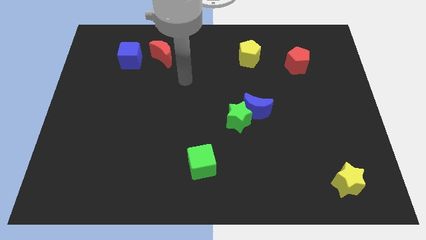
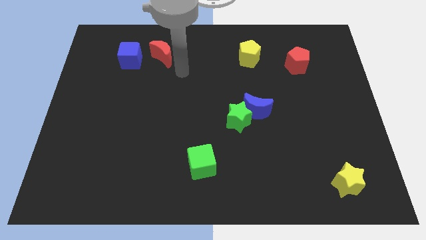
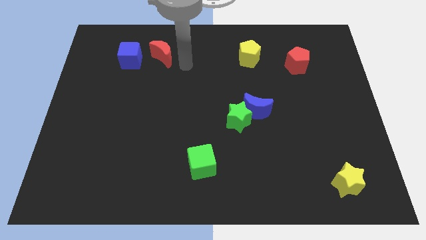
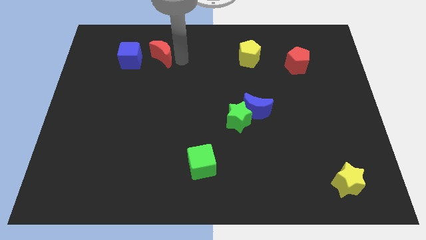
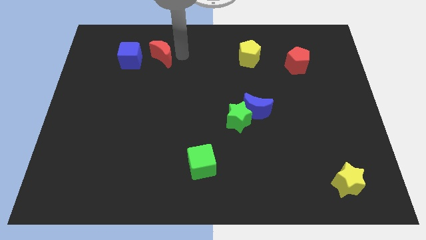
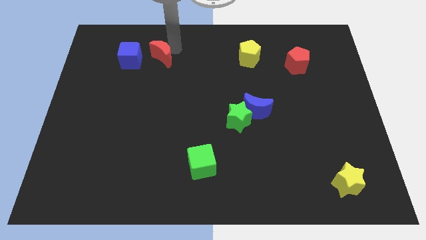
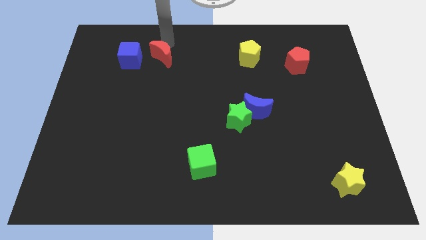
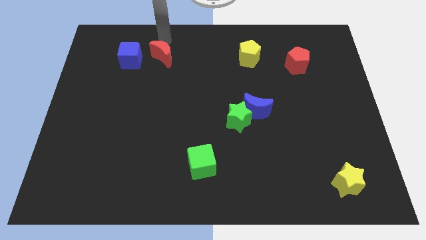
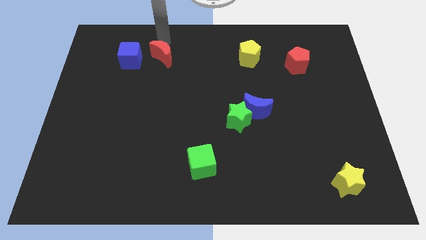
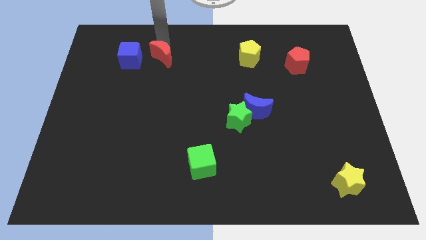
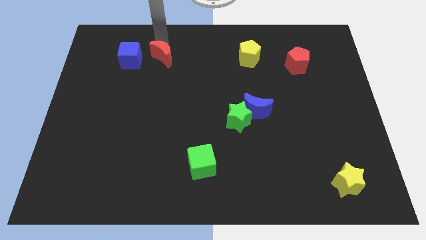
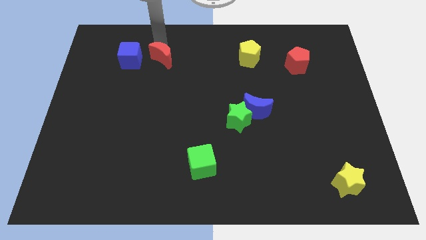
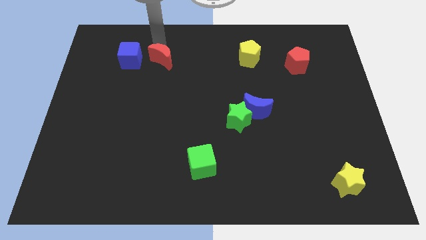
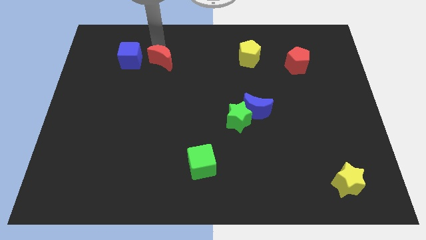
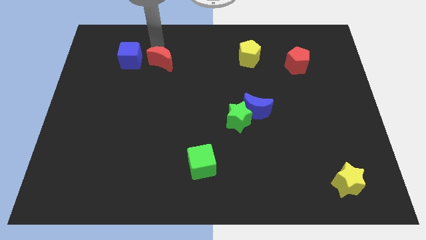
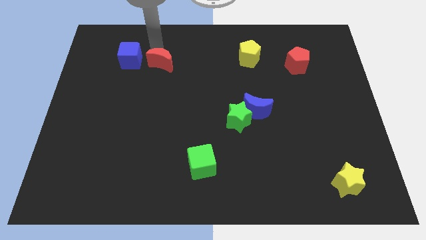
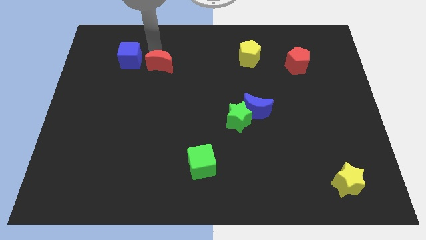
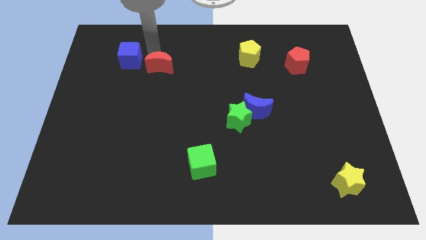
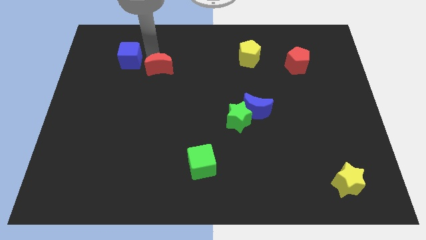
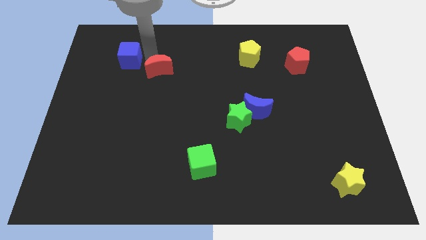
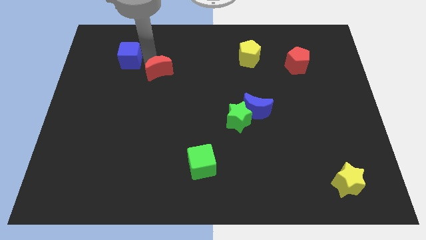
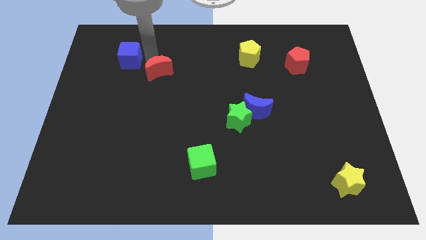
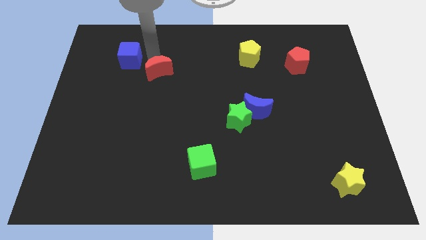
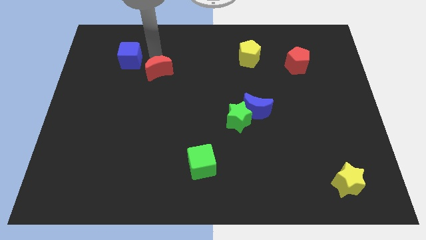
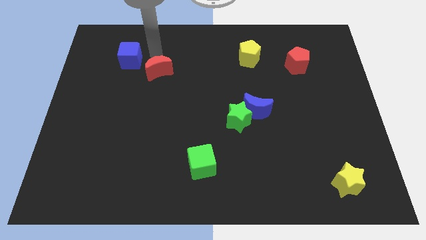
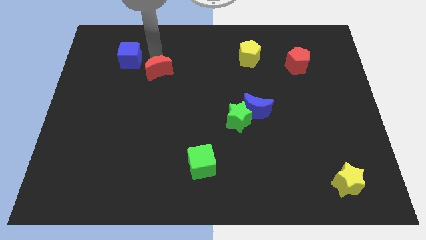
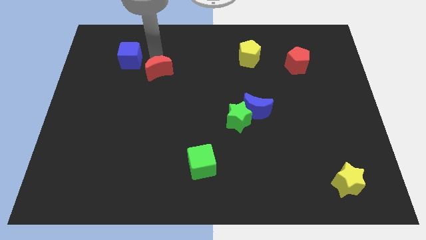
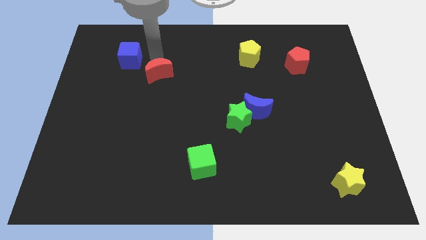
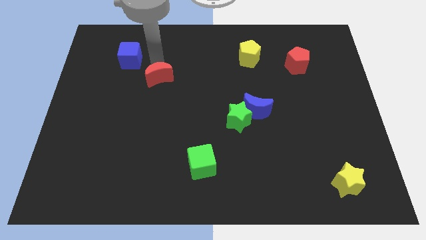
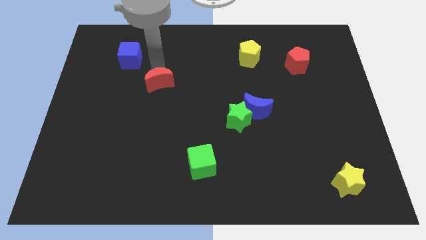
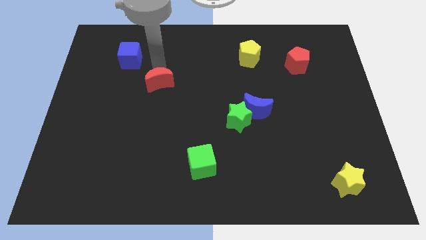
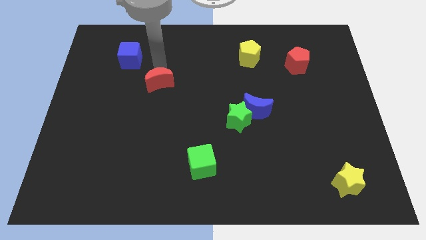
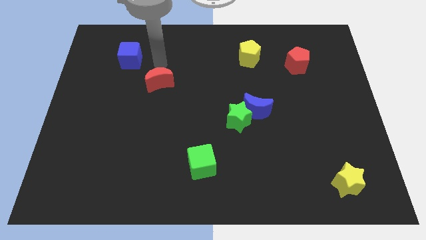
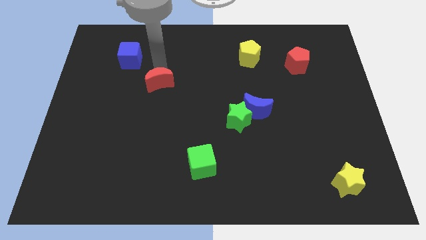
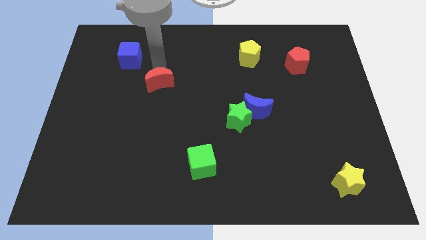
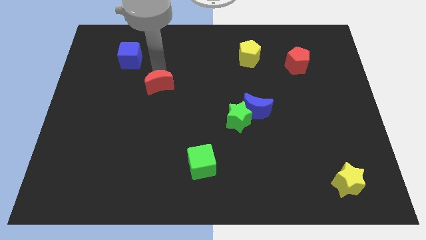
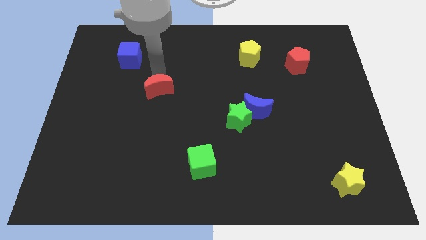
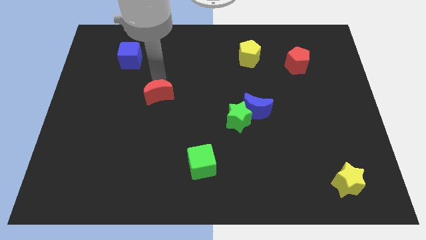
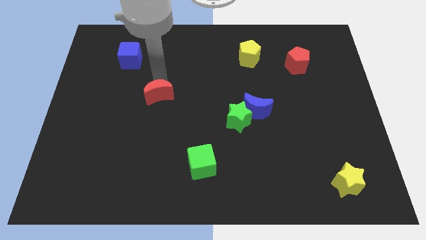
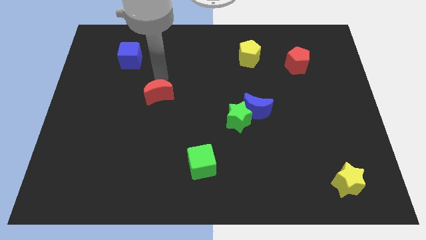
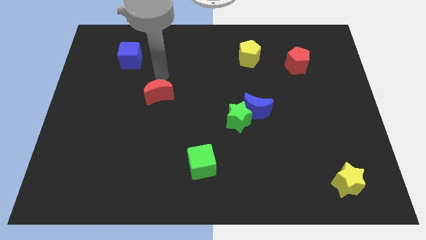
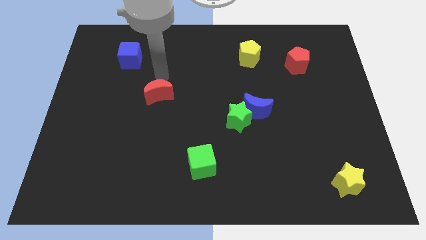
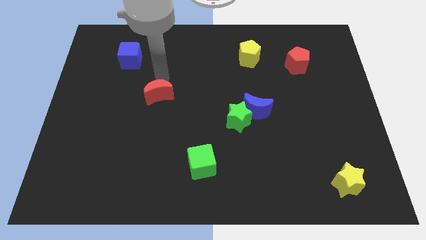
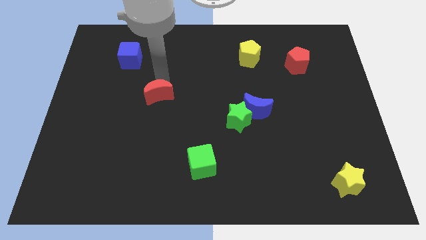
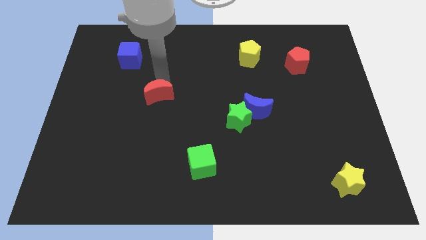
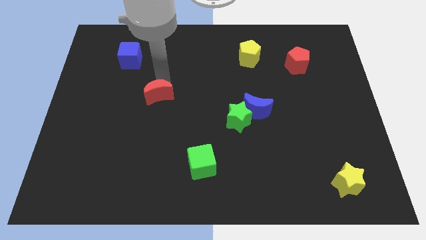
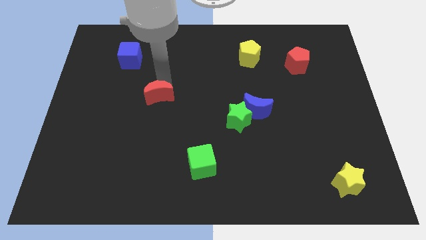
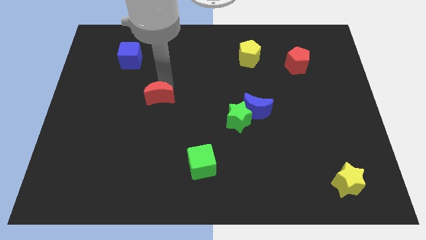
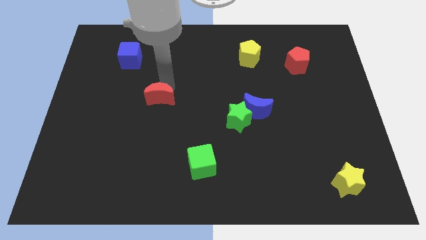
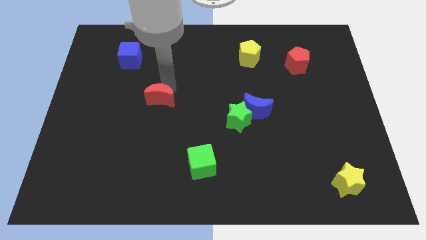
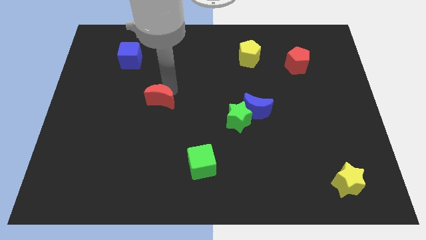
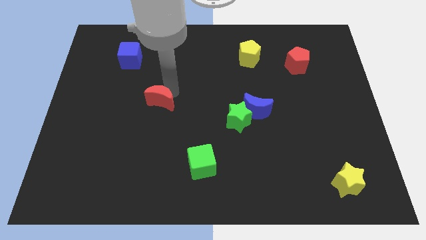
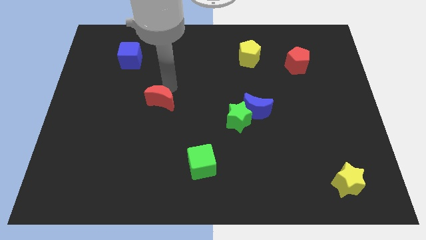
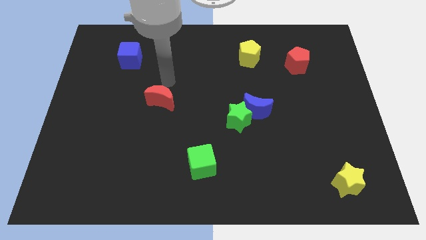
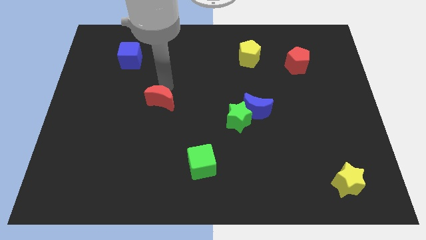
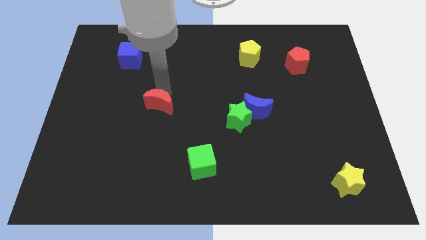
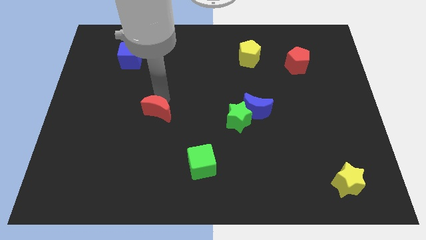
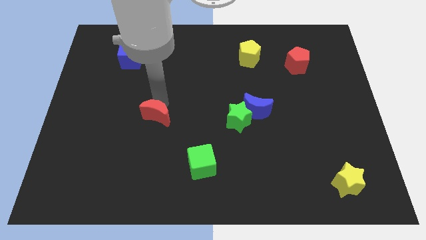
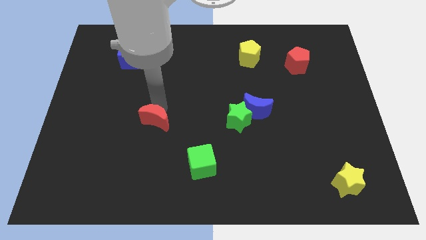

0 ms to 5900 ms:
slide the red moon down

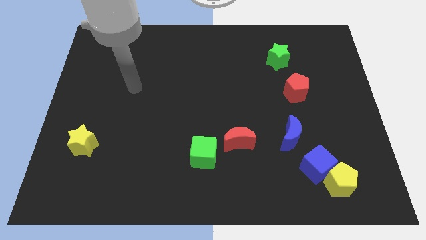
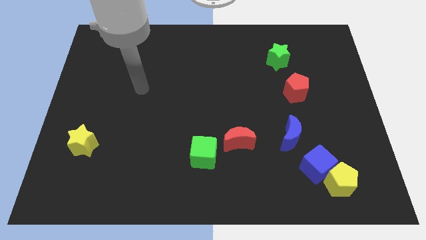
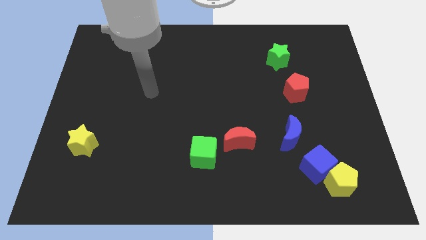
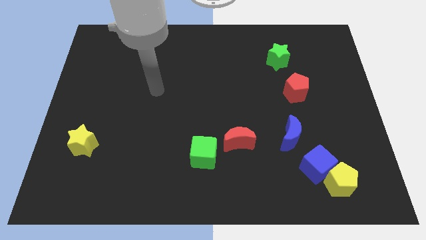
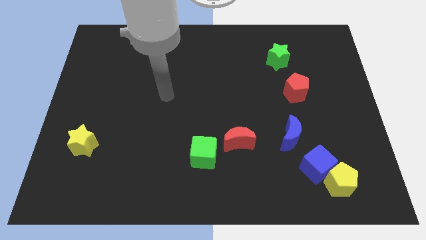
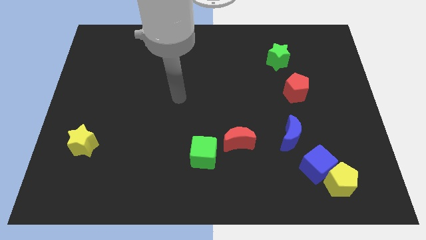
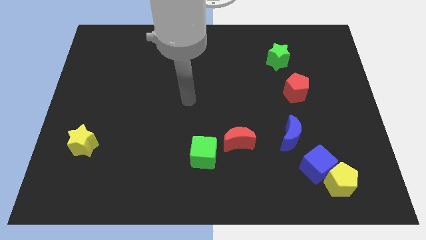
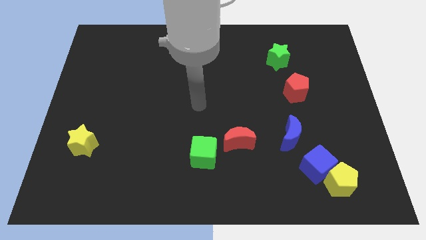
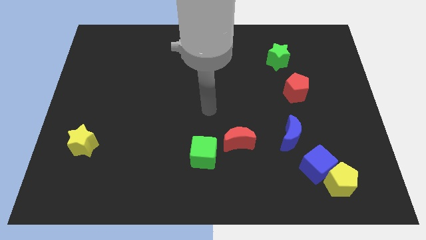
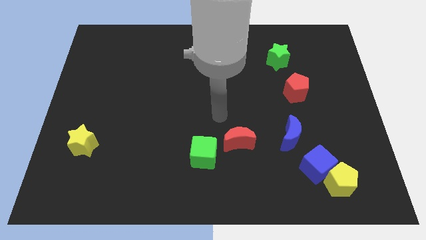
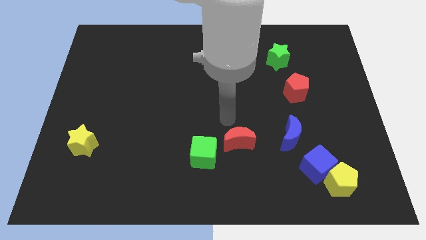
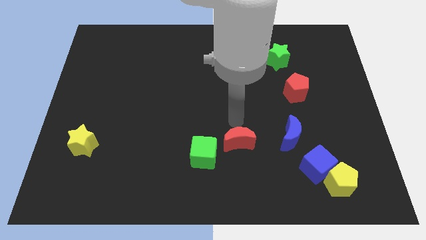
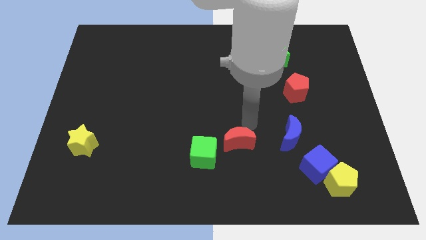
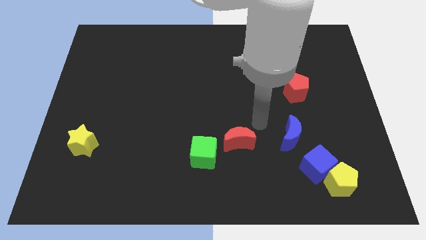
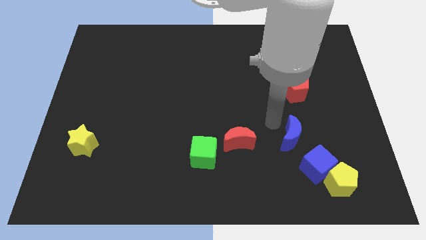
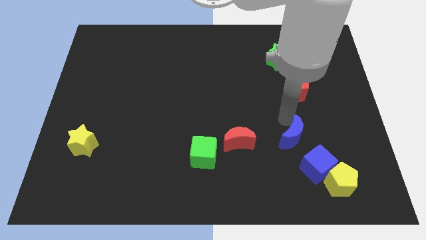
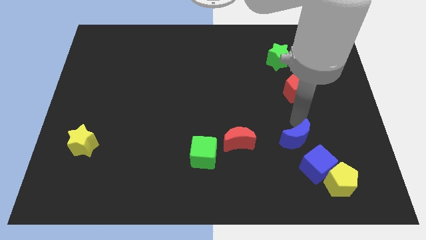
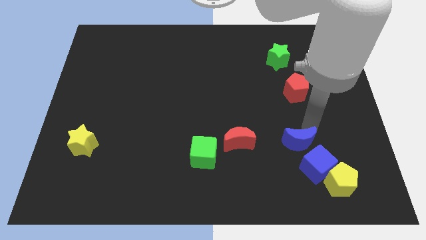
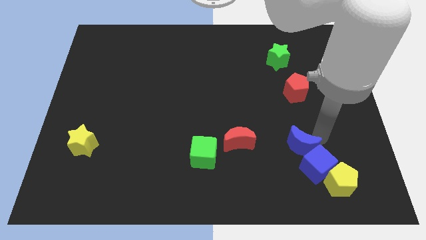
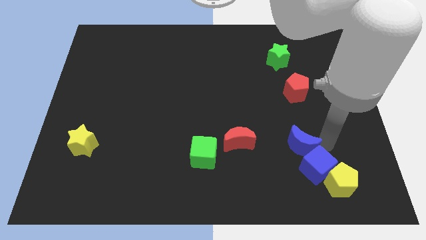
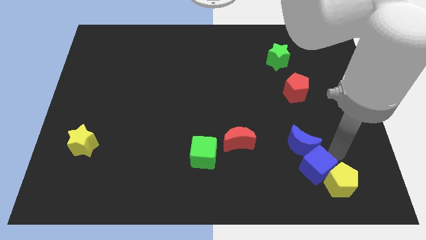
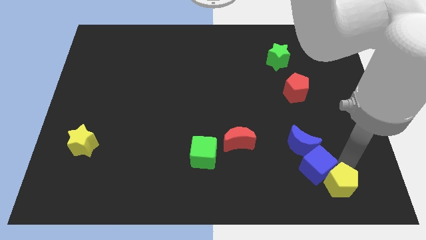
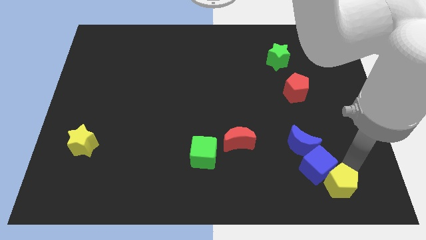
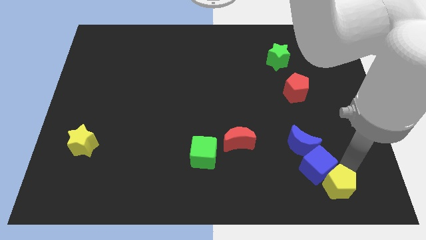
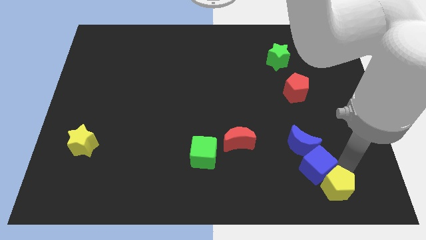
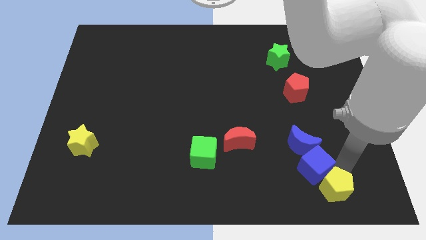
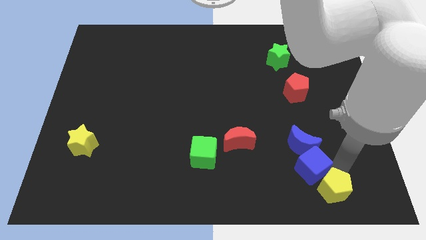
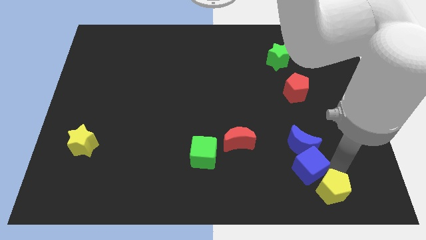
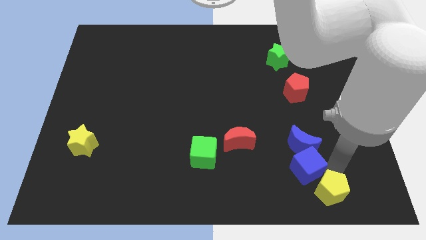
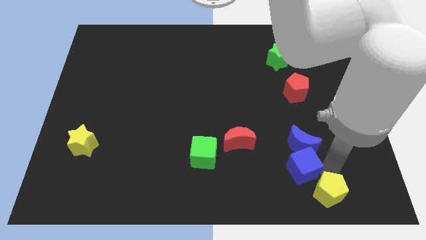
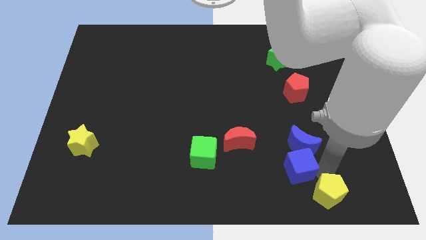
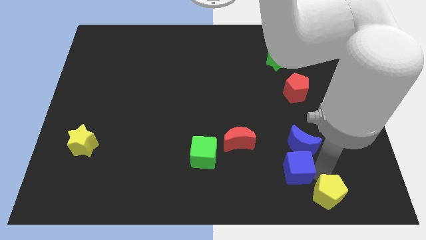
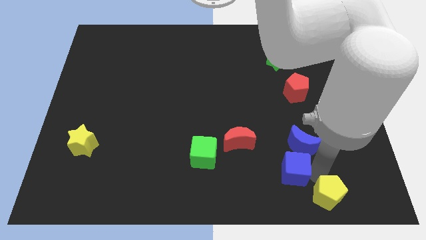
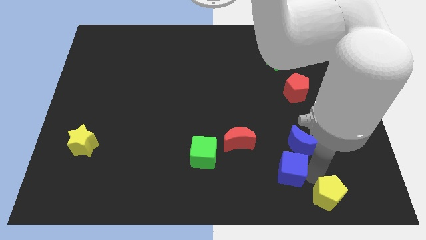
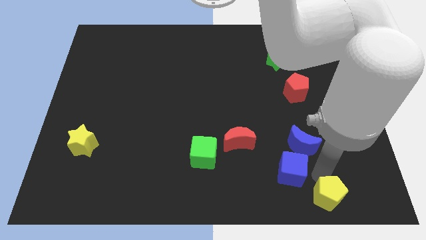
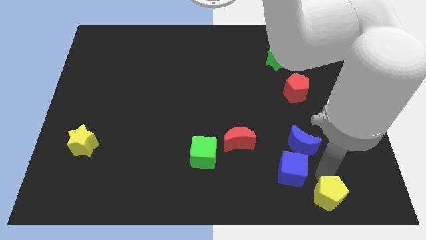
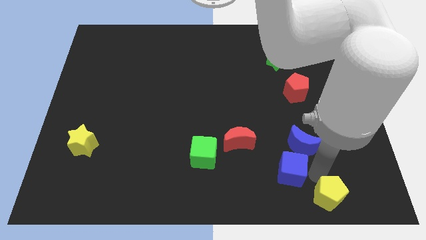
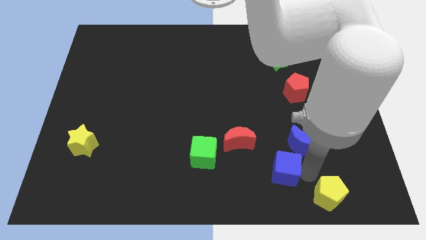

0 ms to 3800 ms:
slide the blue cube a bit left
